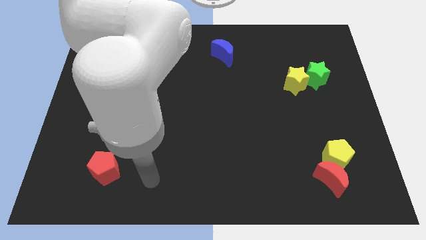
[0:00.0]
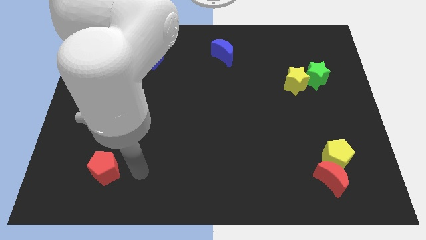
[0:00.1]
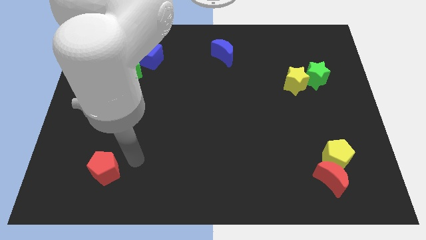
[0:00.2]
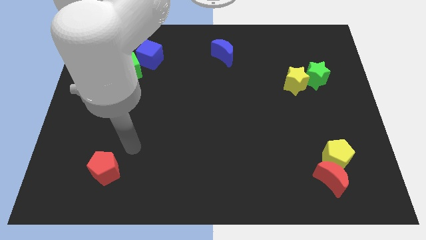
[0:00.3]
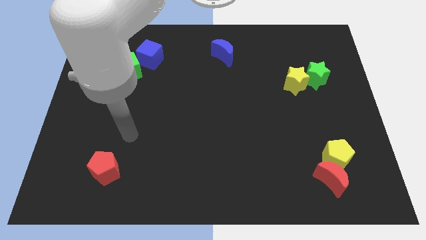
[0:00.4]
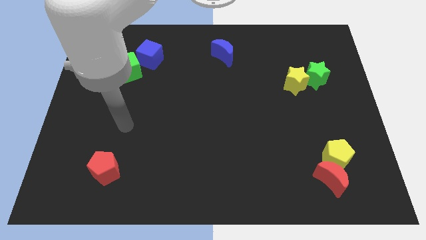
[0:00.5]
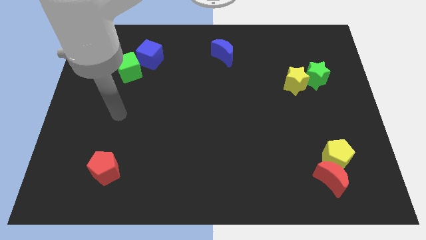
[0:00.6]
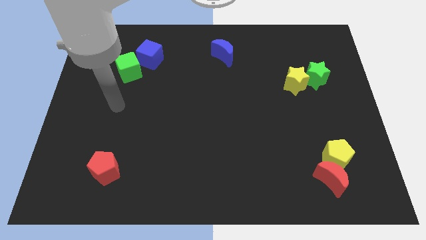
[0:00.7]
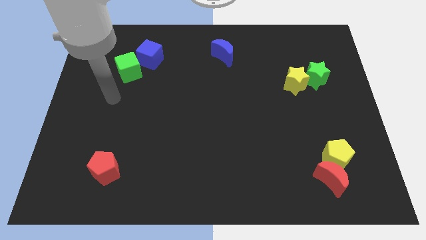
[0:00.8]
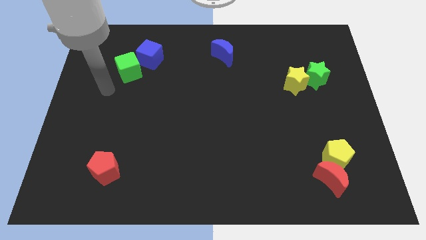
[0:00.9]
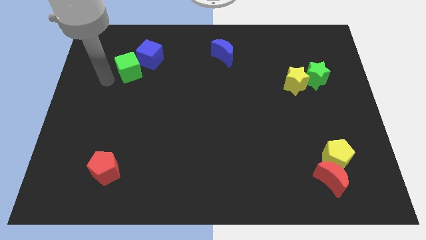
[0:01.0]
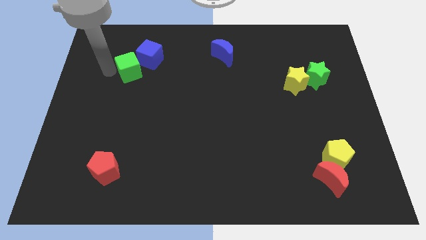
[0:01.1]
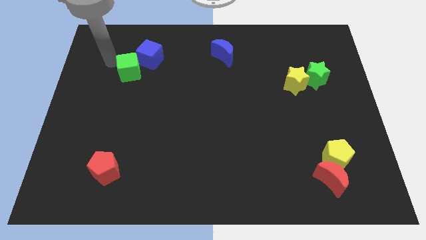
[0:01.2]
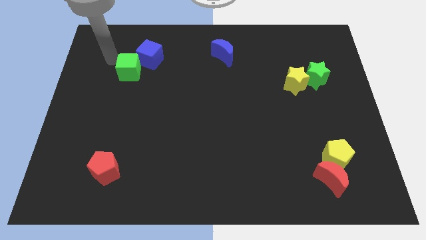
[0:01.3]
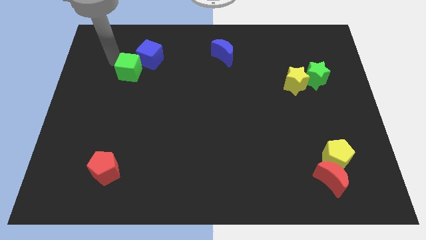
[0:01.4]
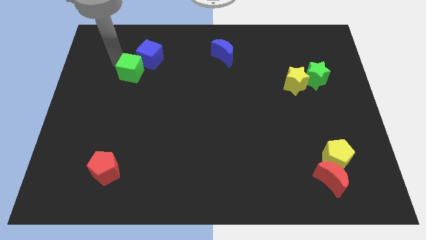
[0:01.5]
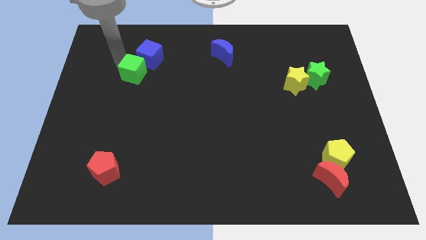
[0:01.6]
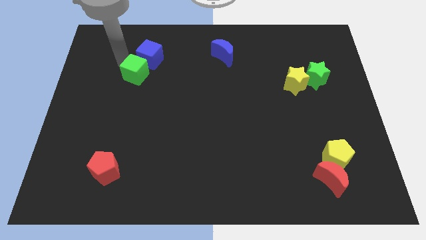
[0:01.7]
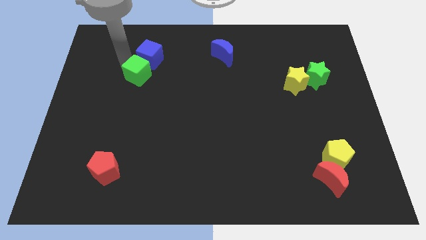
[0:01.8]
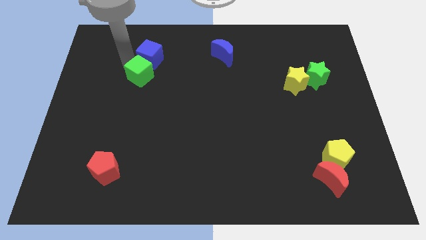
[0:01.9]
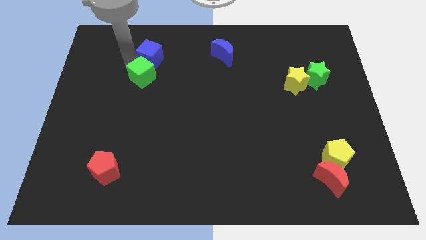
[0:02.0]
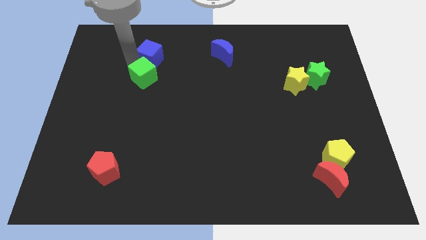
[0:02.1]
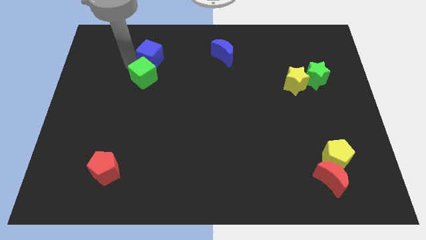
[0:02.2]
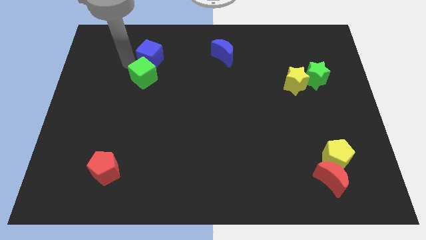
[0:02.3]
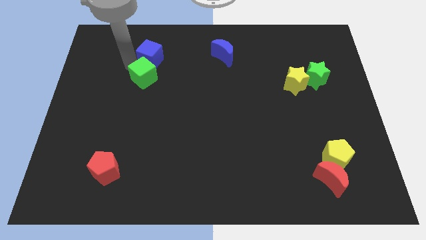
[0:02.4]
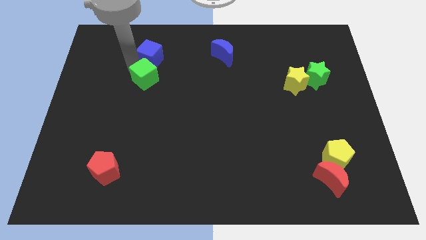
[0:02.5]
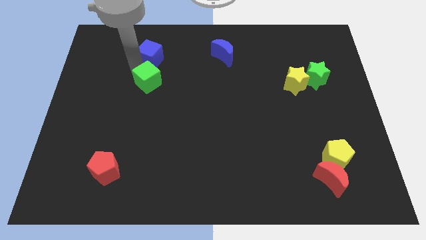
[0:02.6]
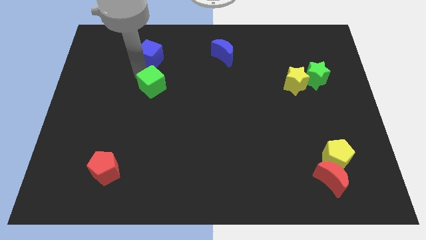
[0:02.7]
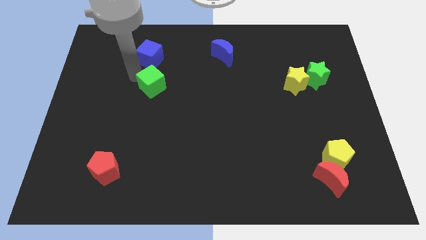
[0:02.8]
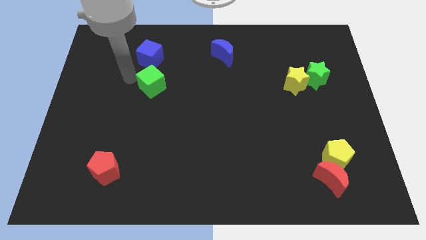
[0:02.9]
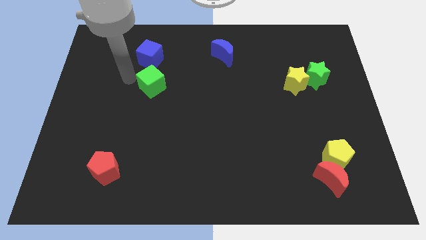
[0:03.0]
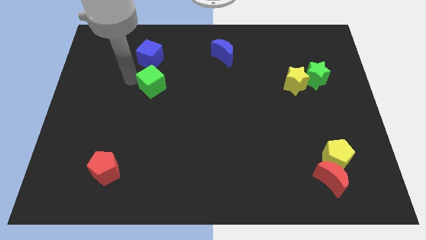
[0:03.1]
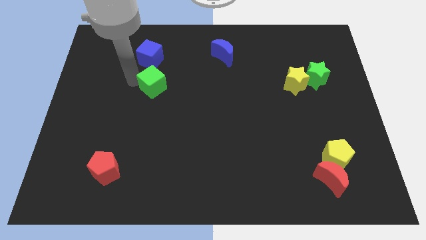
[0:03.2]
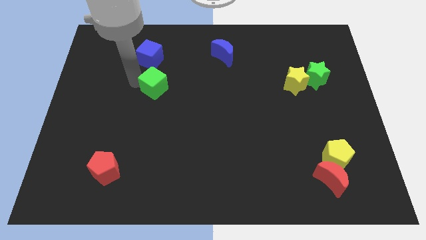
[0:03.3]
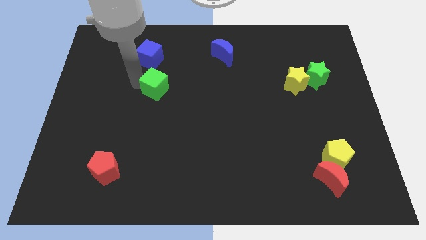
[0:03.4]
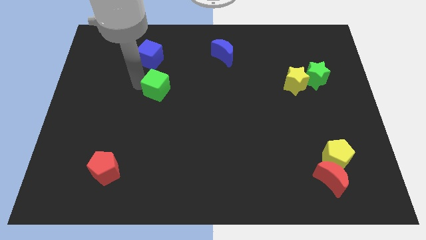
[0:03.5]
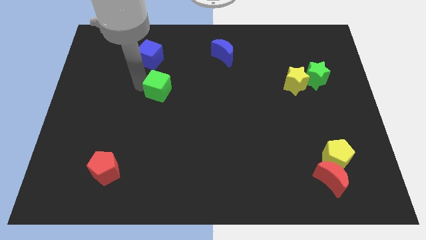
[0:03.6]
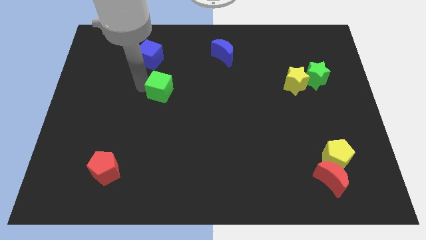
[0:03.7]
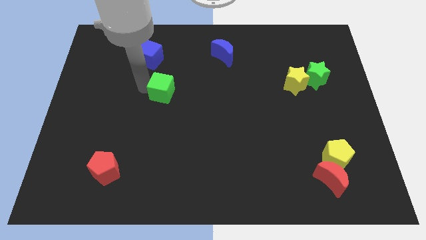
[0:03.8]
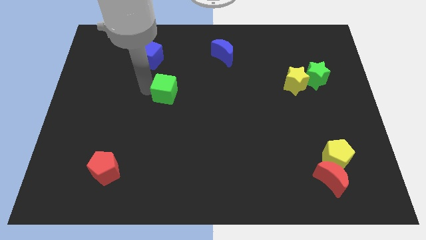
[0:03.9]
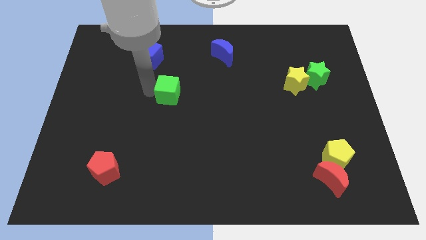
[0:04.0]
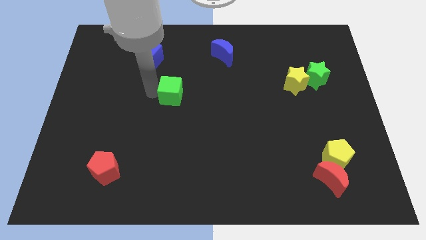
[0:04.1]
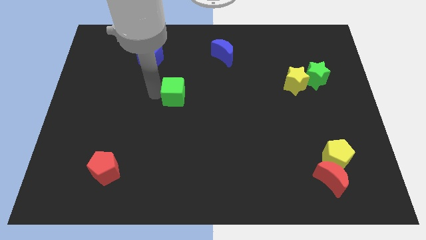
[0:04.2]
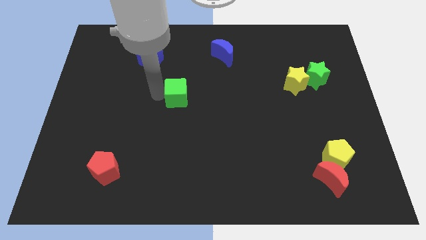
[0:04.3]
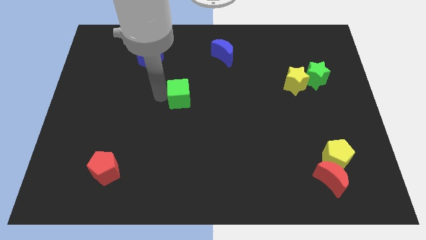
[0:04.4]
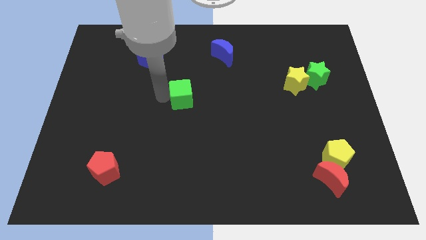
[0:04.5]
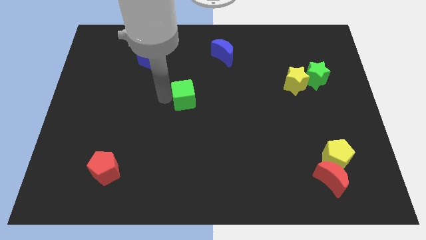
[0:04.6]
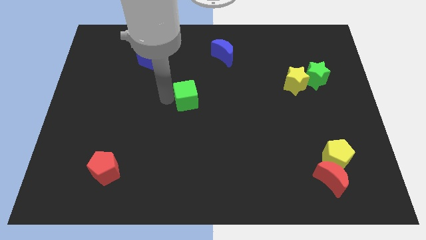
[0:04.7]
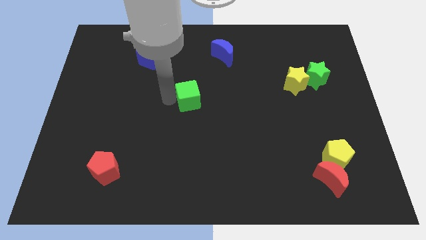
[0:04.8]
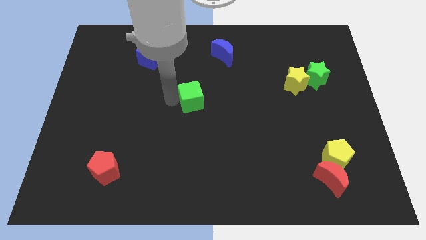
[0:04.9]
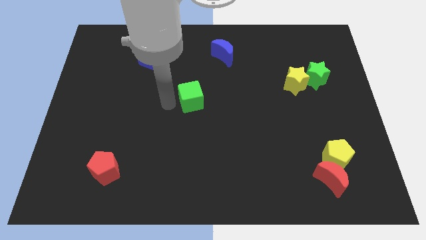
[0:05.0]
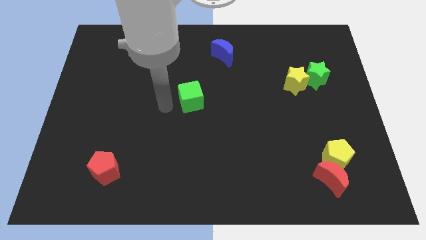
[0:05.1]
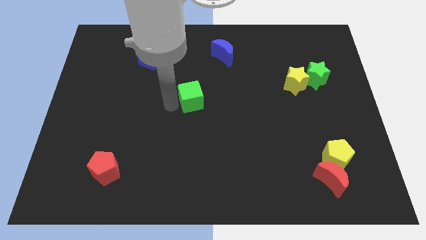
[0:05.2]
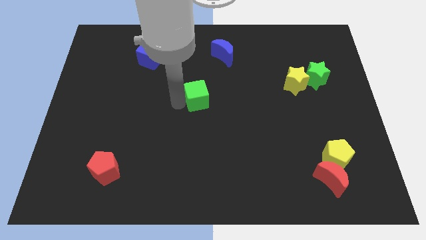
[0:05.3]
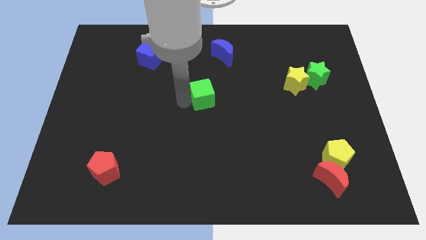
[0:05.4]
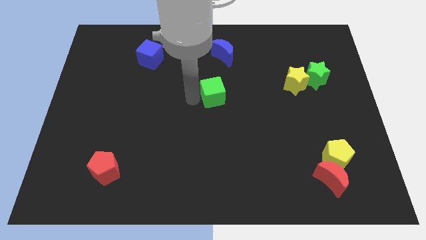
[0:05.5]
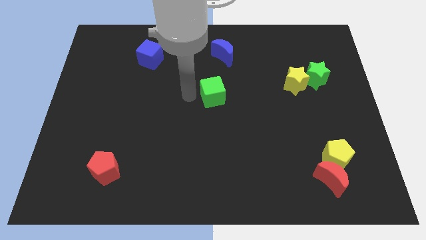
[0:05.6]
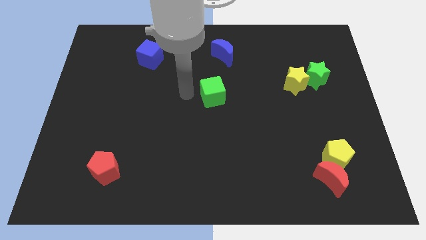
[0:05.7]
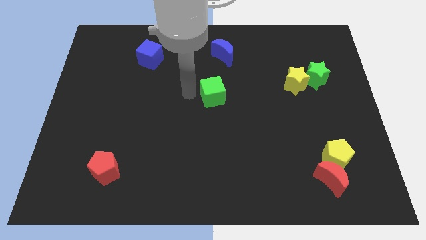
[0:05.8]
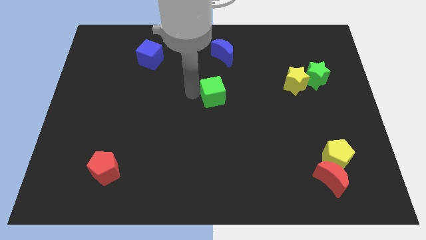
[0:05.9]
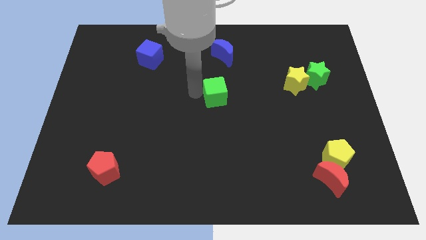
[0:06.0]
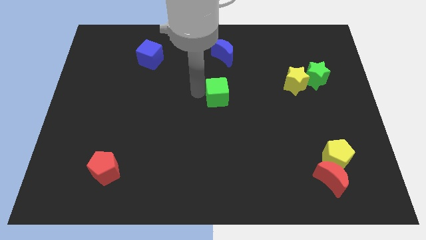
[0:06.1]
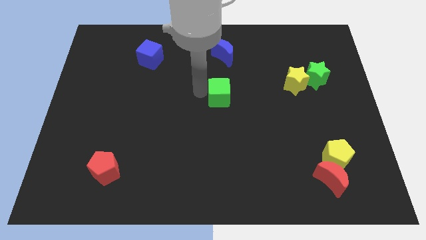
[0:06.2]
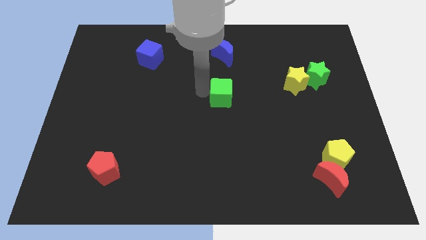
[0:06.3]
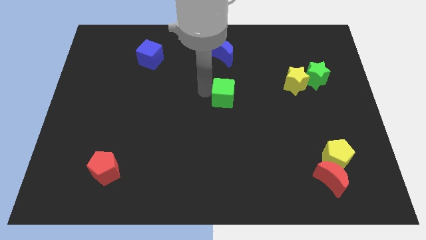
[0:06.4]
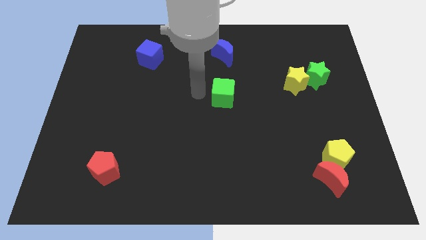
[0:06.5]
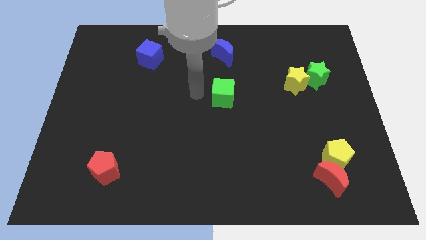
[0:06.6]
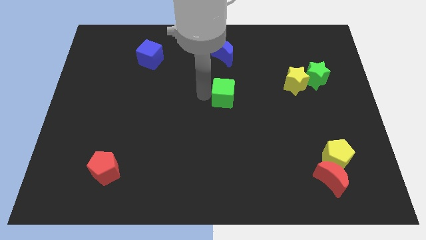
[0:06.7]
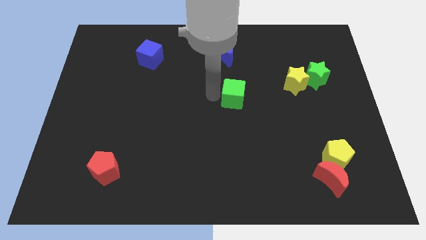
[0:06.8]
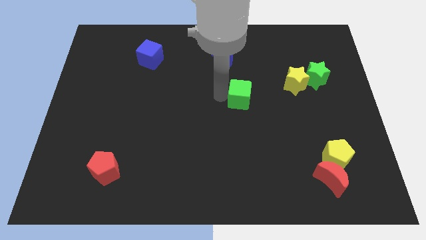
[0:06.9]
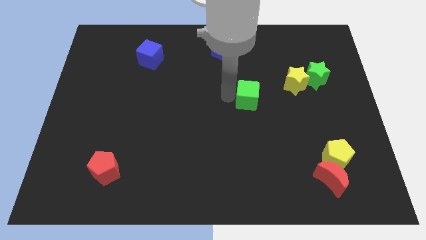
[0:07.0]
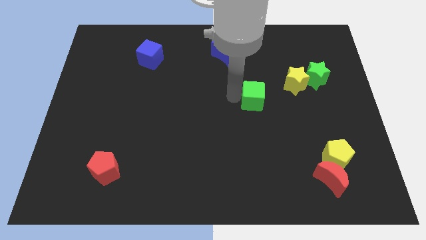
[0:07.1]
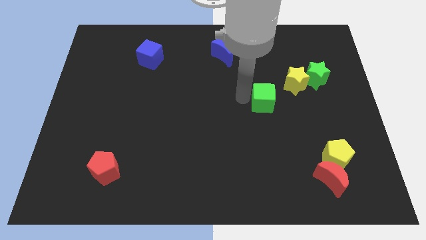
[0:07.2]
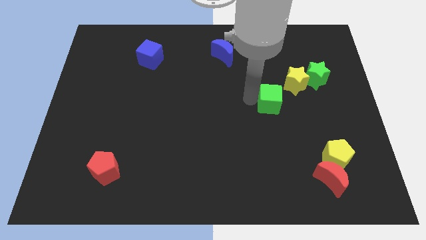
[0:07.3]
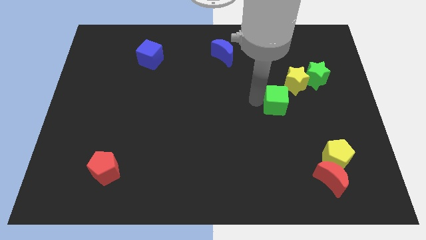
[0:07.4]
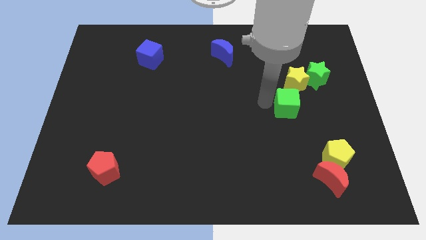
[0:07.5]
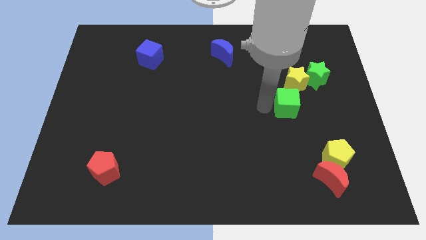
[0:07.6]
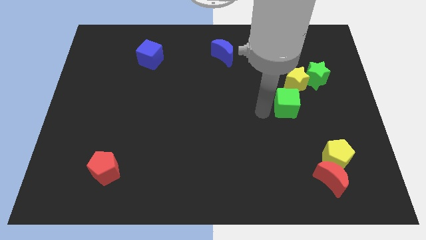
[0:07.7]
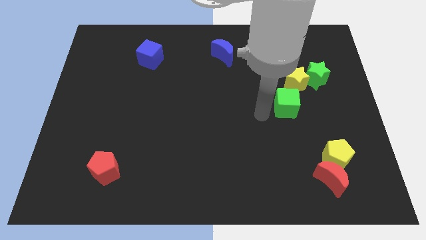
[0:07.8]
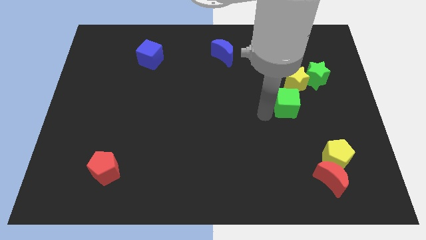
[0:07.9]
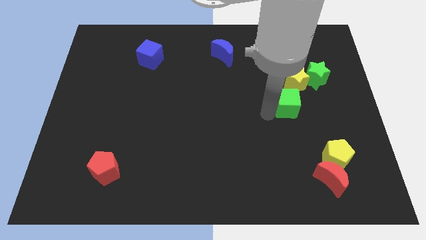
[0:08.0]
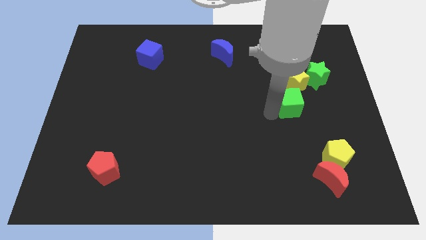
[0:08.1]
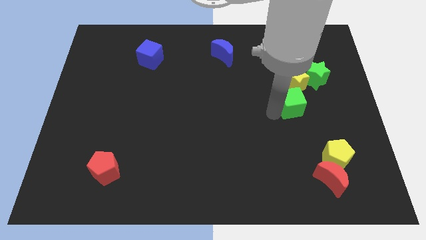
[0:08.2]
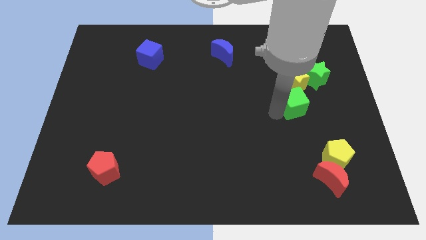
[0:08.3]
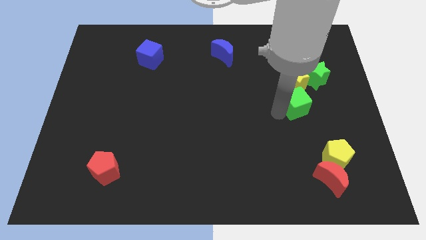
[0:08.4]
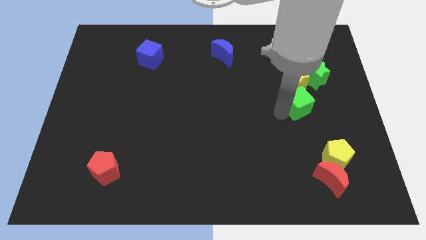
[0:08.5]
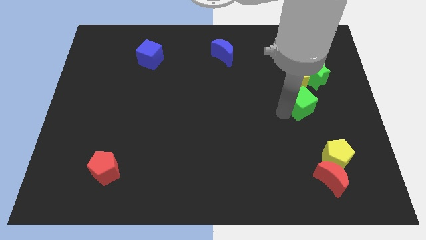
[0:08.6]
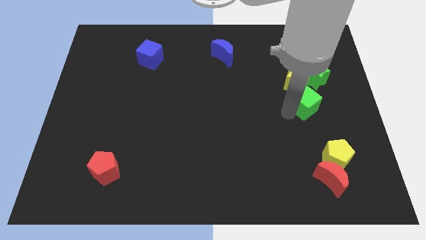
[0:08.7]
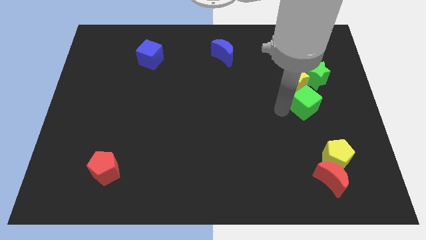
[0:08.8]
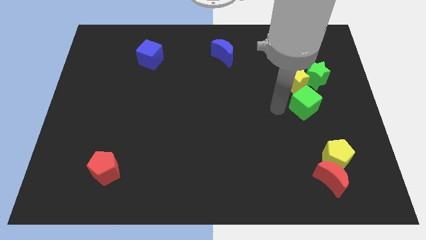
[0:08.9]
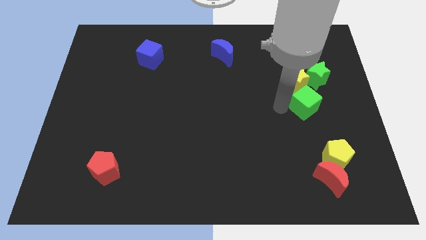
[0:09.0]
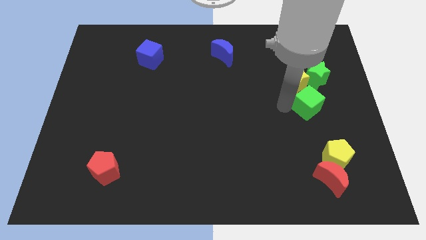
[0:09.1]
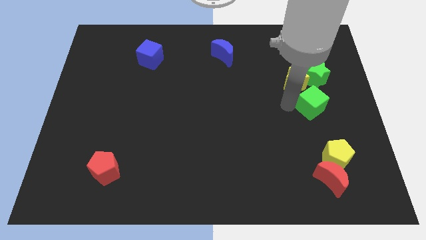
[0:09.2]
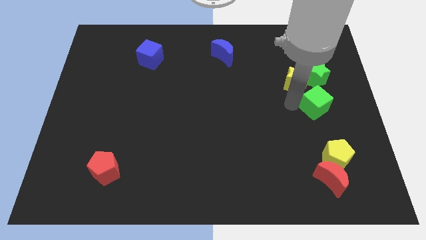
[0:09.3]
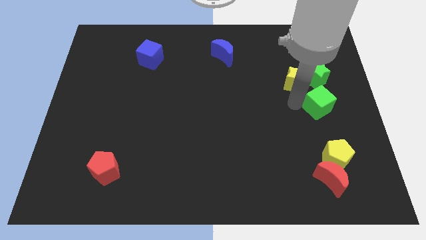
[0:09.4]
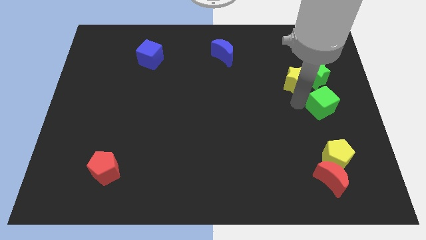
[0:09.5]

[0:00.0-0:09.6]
put the green cube to the right side
